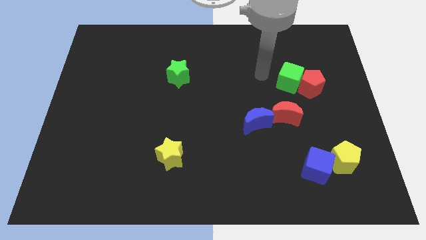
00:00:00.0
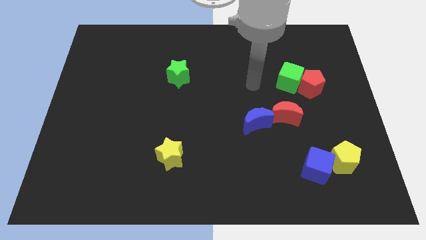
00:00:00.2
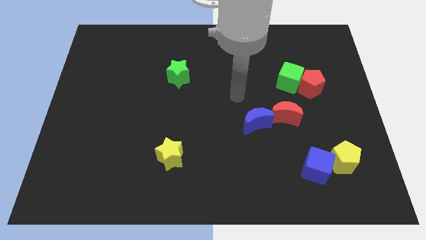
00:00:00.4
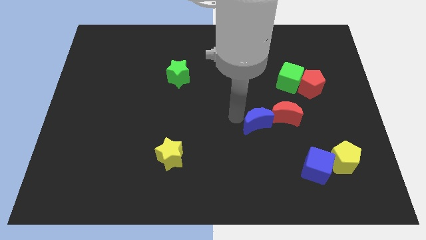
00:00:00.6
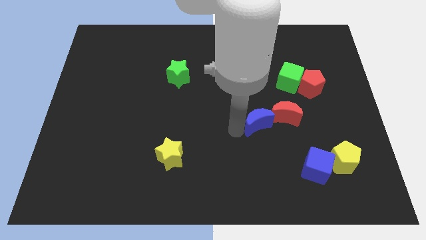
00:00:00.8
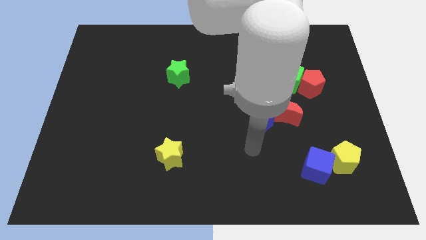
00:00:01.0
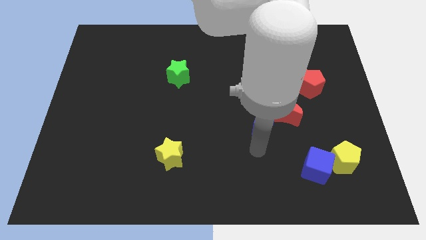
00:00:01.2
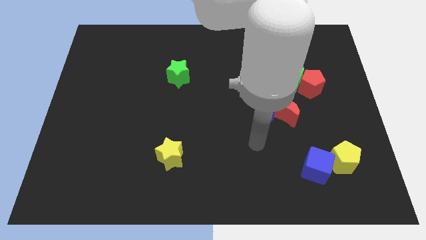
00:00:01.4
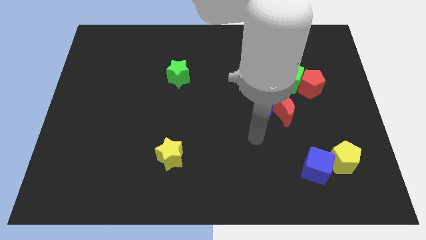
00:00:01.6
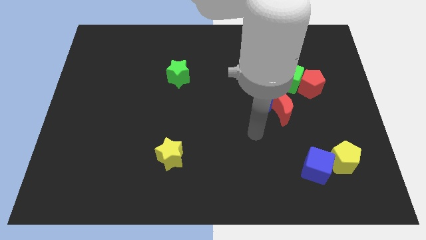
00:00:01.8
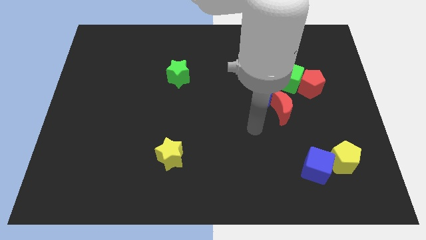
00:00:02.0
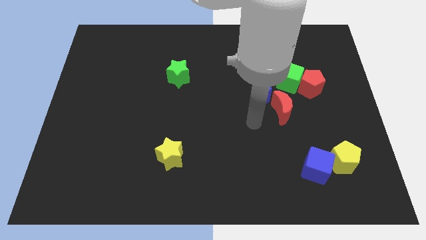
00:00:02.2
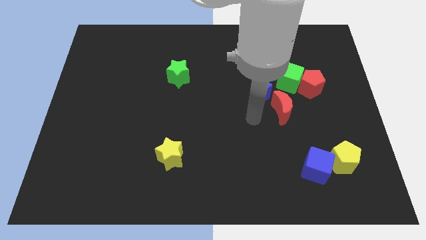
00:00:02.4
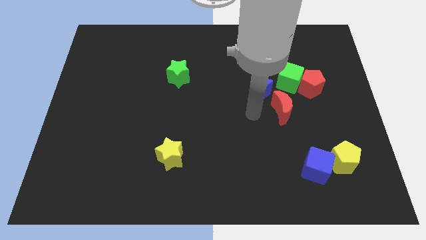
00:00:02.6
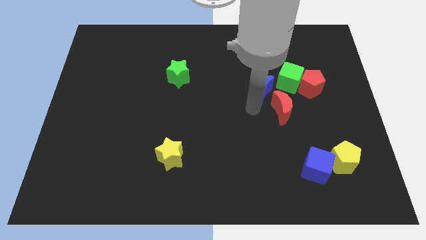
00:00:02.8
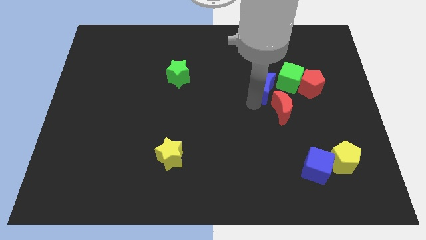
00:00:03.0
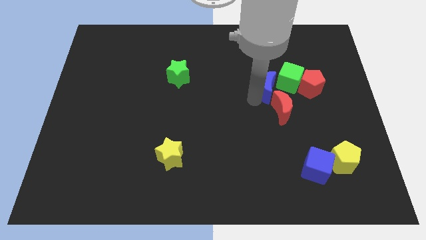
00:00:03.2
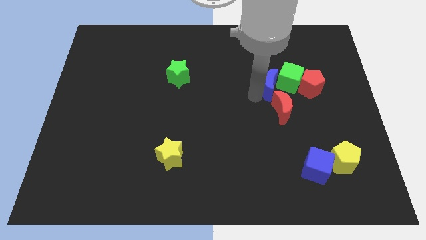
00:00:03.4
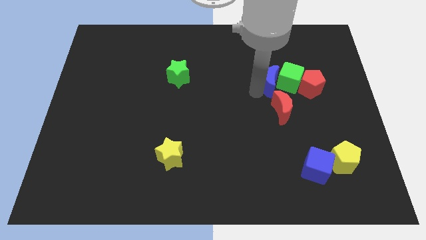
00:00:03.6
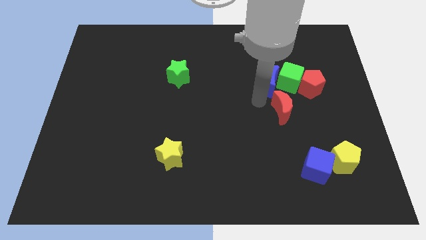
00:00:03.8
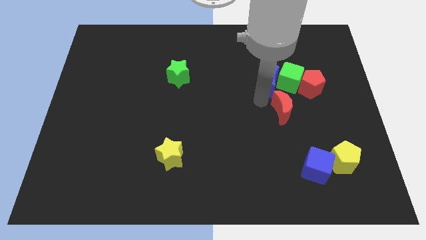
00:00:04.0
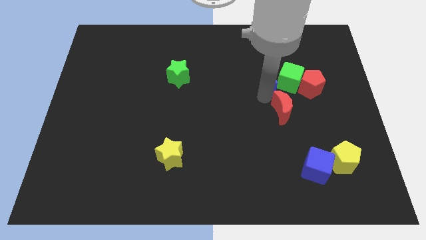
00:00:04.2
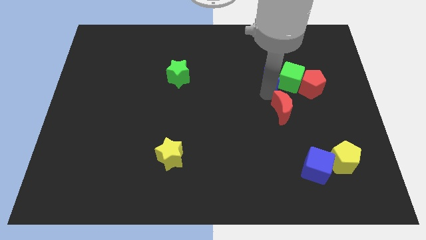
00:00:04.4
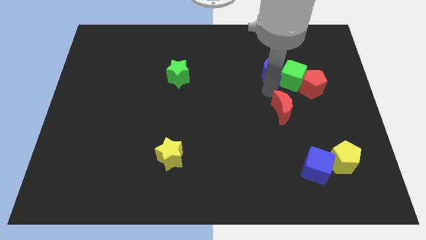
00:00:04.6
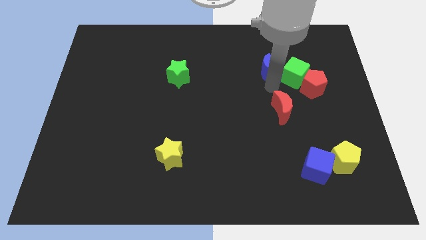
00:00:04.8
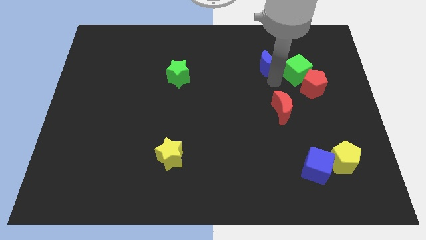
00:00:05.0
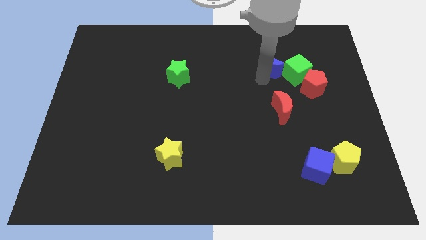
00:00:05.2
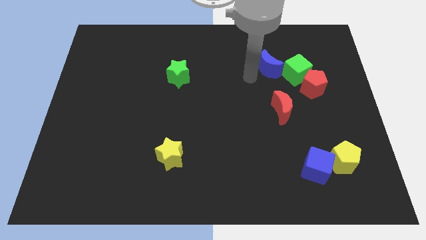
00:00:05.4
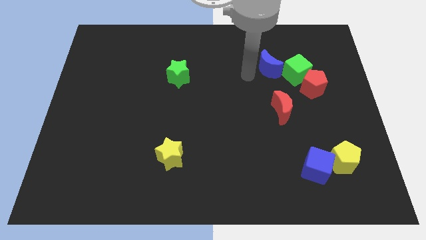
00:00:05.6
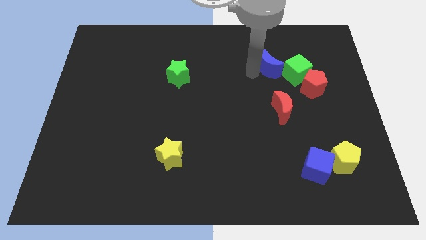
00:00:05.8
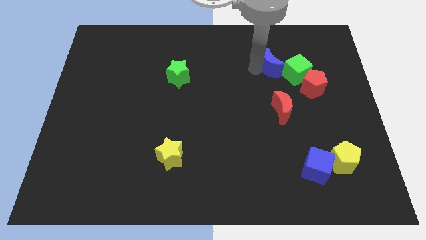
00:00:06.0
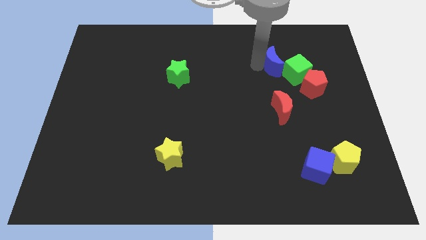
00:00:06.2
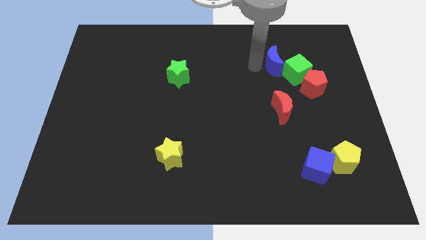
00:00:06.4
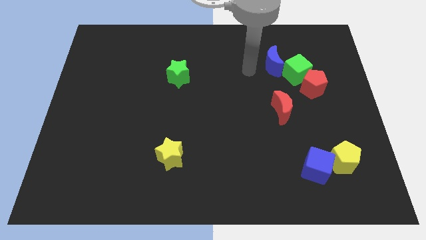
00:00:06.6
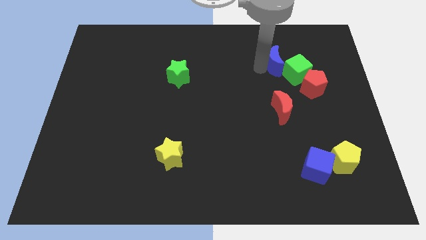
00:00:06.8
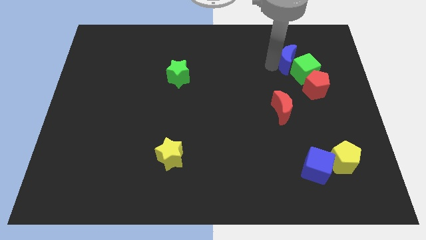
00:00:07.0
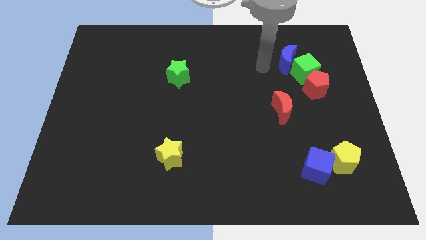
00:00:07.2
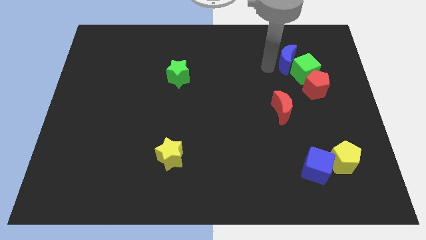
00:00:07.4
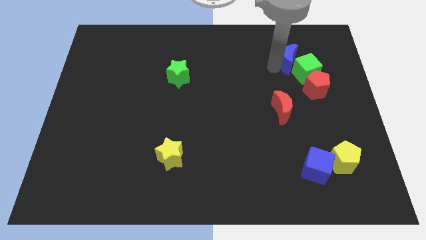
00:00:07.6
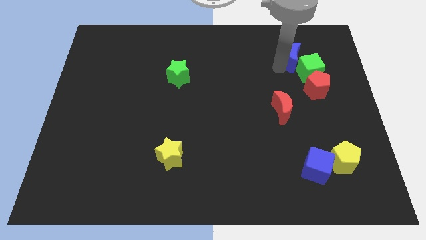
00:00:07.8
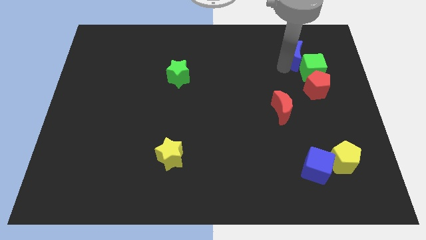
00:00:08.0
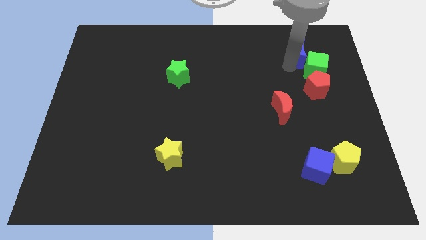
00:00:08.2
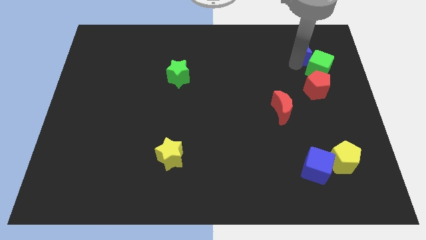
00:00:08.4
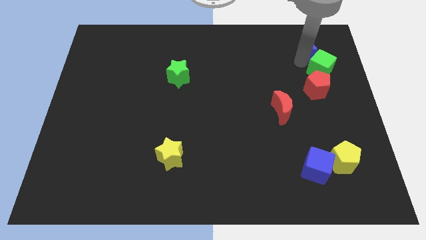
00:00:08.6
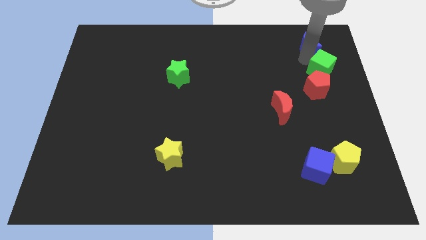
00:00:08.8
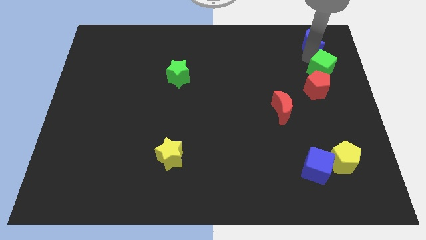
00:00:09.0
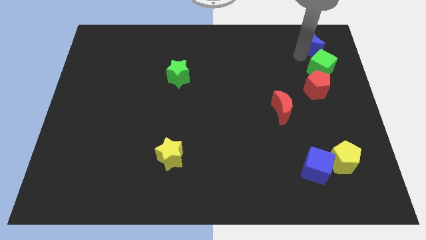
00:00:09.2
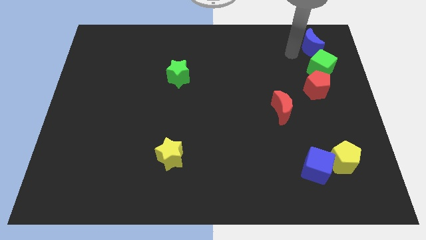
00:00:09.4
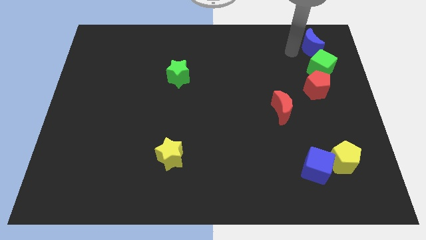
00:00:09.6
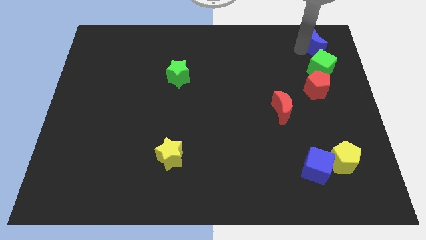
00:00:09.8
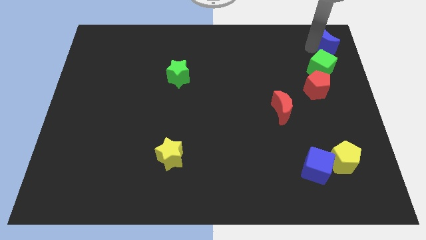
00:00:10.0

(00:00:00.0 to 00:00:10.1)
move the blue moon to the top right

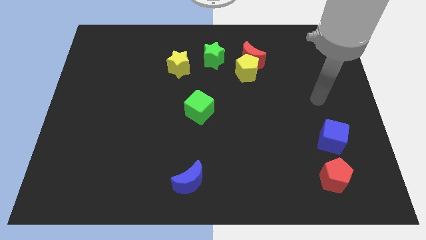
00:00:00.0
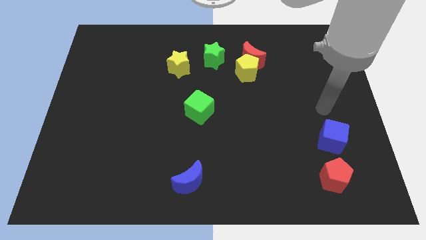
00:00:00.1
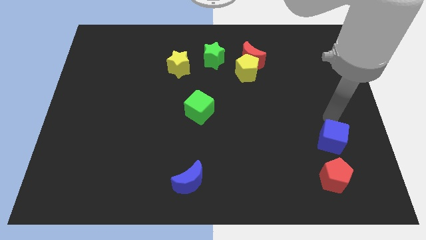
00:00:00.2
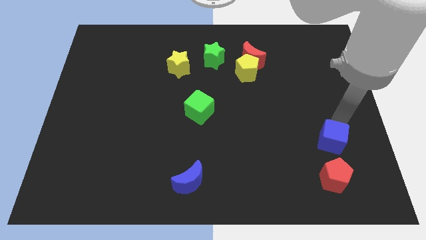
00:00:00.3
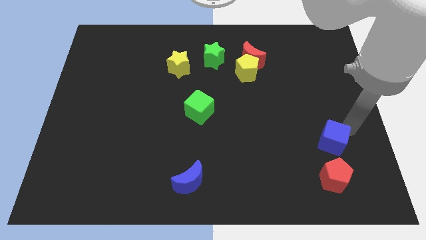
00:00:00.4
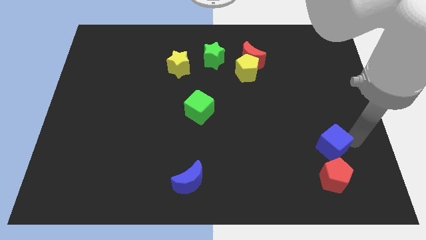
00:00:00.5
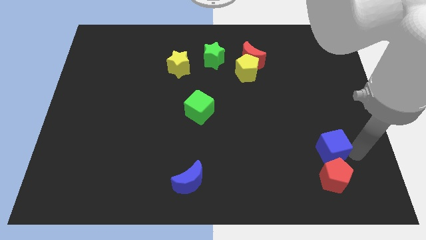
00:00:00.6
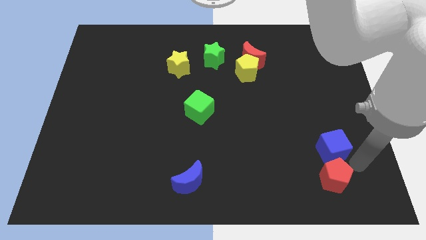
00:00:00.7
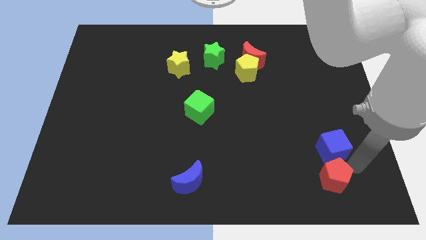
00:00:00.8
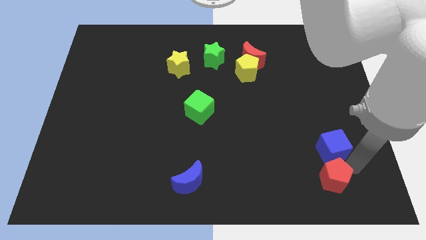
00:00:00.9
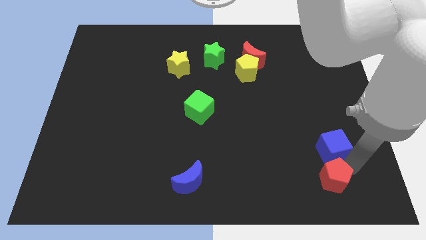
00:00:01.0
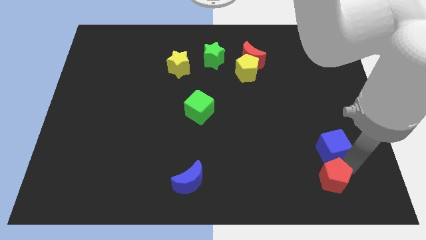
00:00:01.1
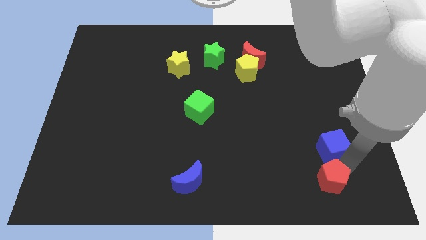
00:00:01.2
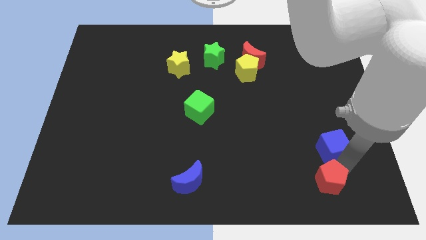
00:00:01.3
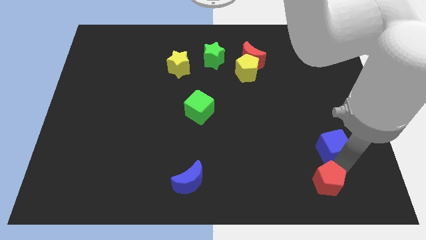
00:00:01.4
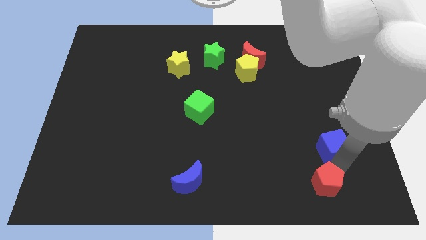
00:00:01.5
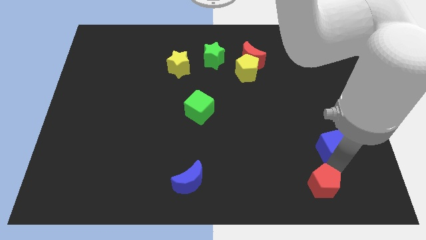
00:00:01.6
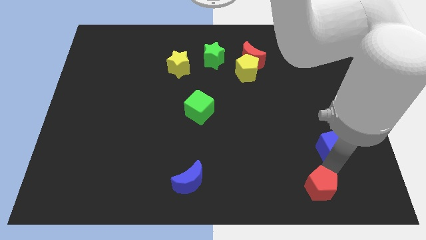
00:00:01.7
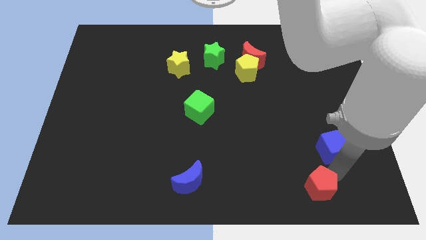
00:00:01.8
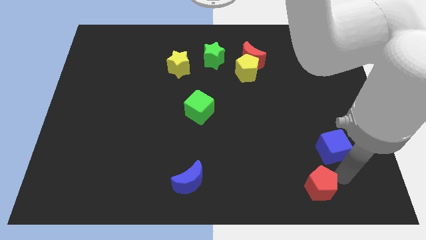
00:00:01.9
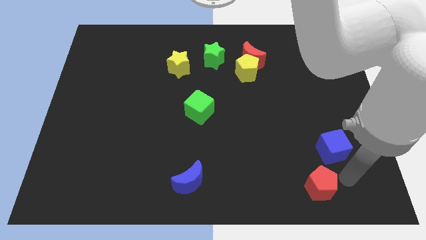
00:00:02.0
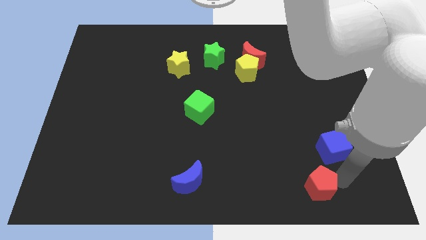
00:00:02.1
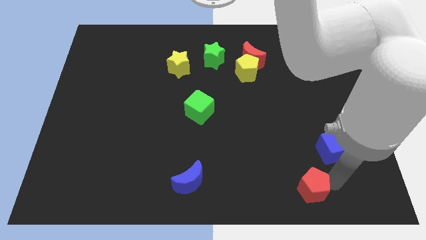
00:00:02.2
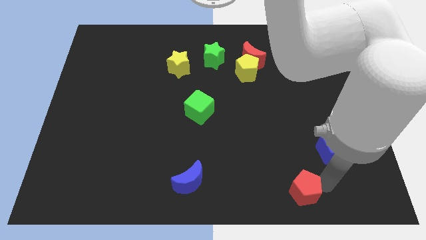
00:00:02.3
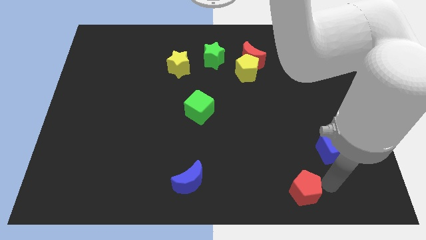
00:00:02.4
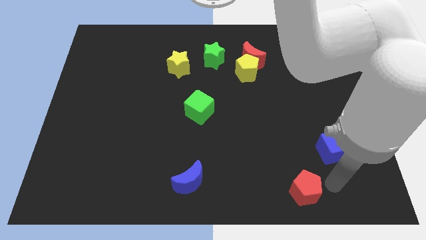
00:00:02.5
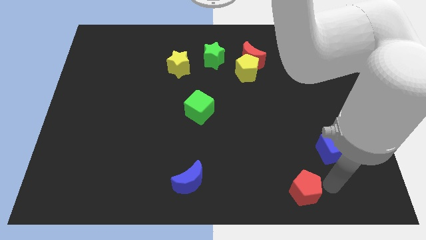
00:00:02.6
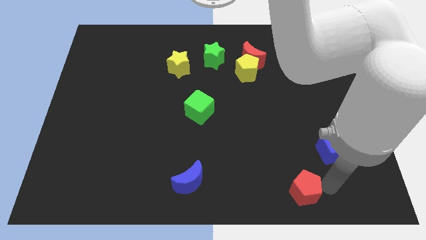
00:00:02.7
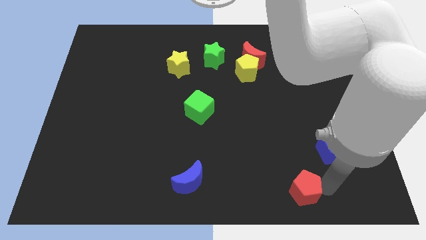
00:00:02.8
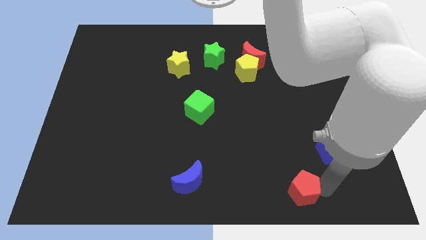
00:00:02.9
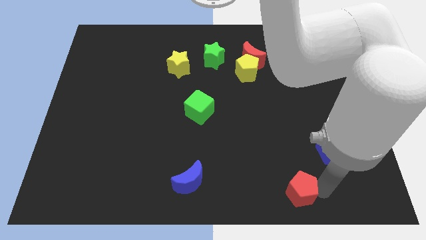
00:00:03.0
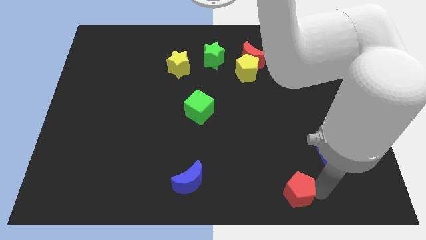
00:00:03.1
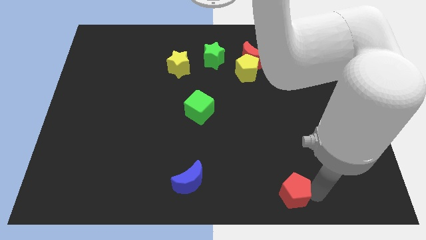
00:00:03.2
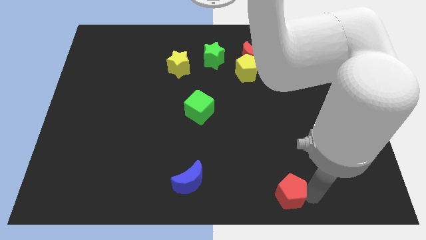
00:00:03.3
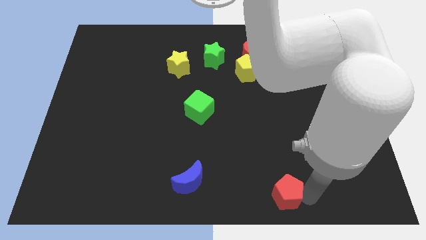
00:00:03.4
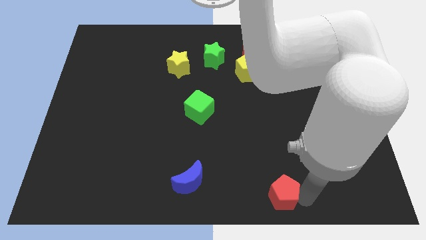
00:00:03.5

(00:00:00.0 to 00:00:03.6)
push the red pentagon to the bottom
